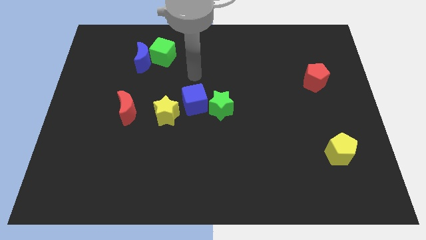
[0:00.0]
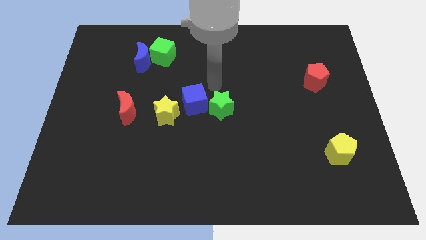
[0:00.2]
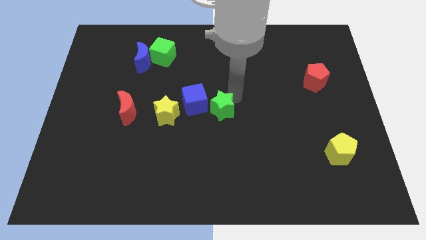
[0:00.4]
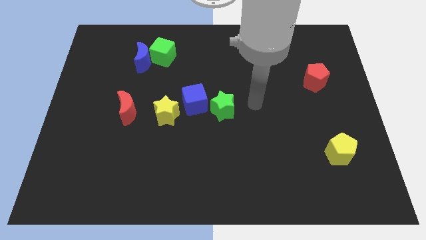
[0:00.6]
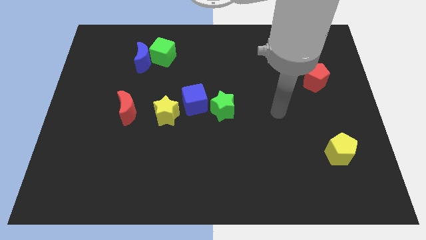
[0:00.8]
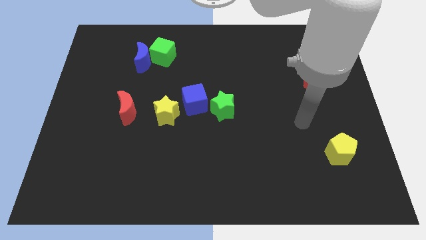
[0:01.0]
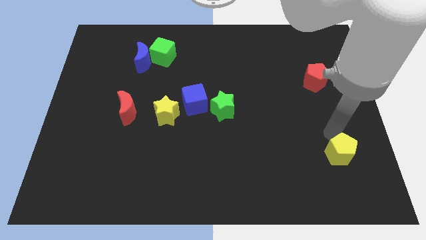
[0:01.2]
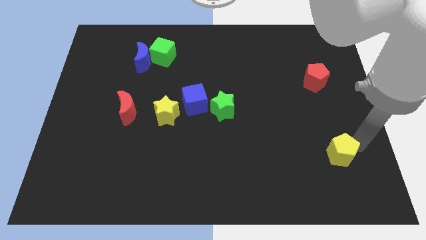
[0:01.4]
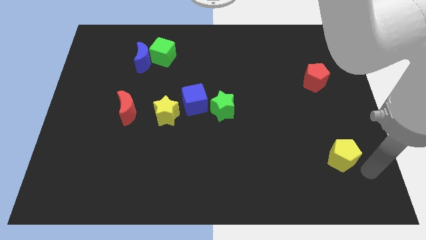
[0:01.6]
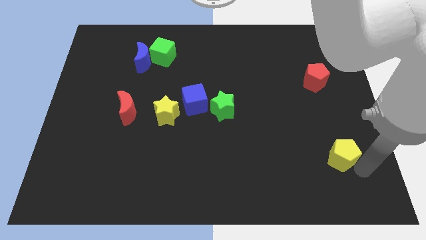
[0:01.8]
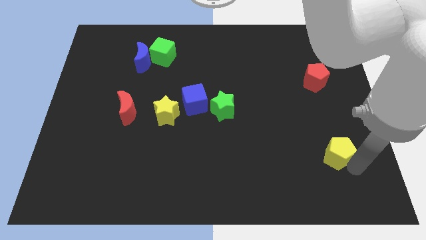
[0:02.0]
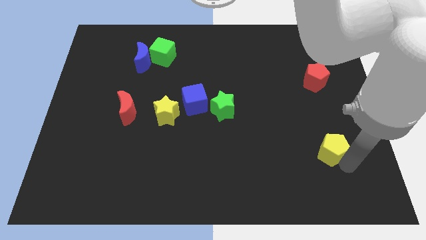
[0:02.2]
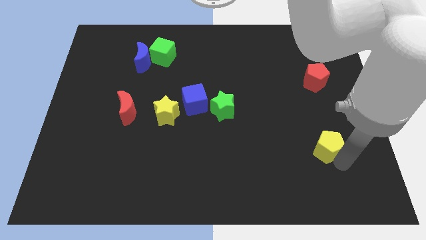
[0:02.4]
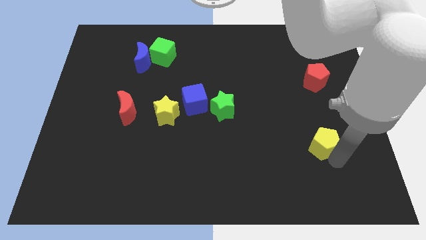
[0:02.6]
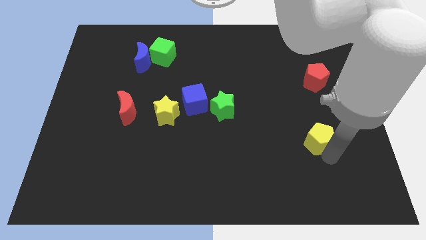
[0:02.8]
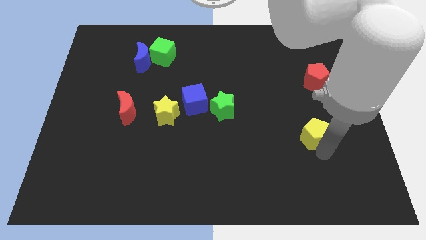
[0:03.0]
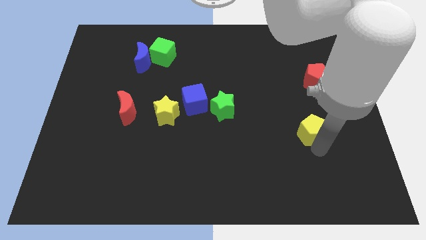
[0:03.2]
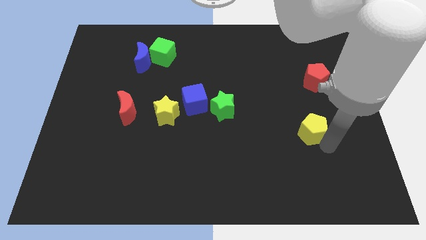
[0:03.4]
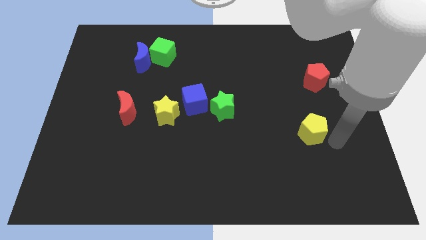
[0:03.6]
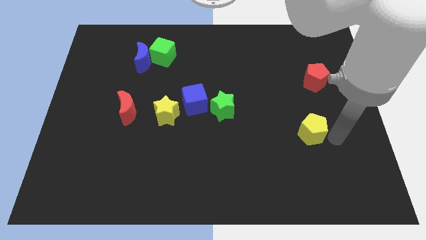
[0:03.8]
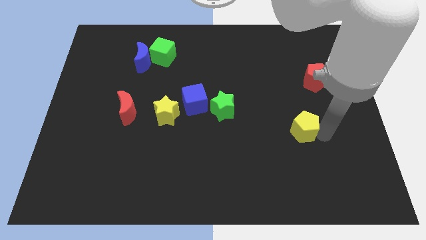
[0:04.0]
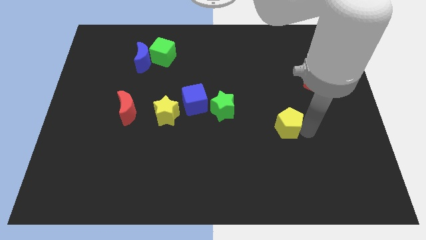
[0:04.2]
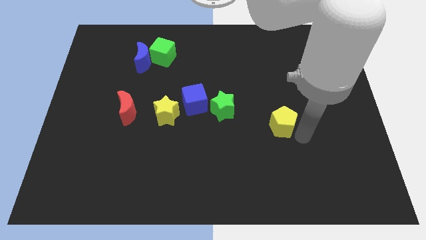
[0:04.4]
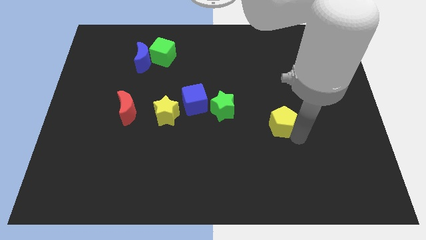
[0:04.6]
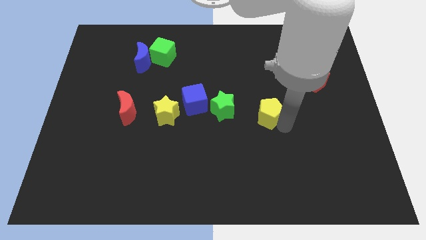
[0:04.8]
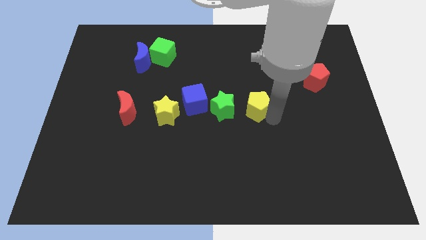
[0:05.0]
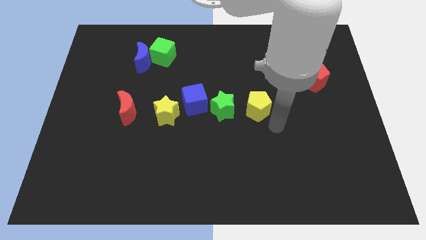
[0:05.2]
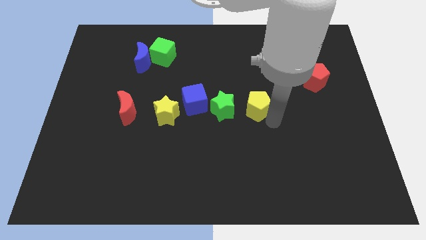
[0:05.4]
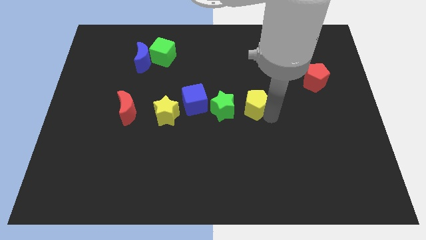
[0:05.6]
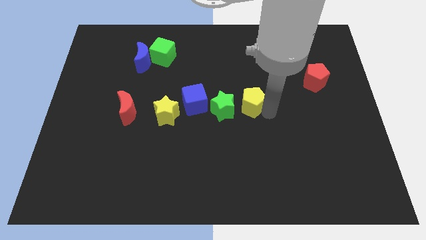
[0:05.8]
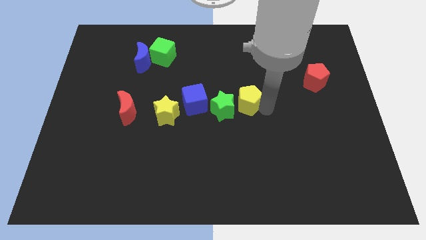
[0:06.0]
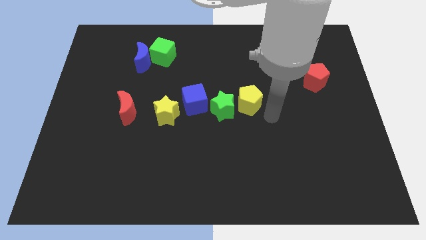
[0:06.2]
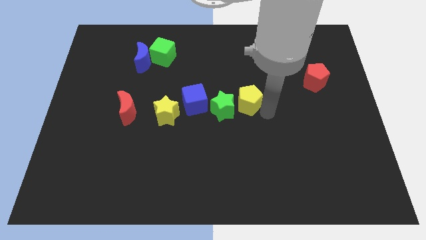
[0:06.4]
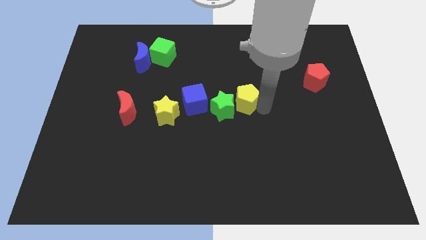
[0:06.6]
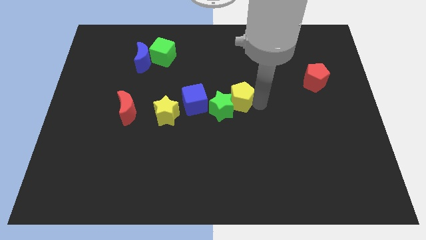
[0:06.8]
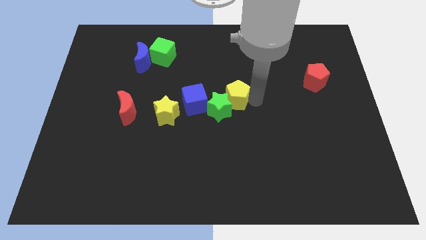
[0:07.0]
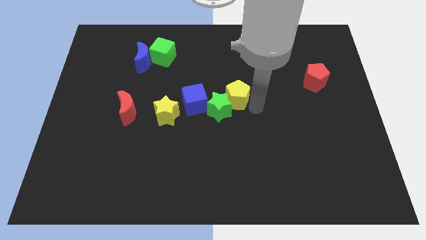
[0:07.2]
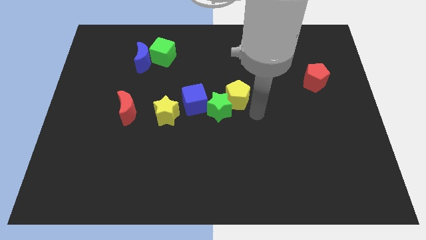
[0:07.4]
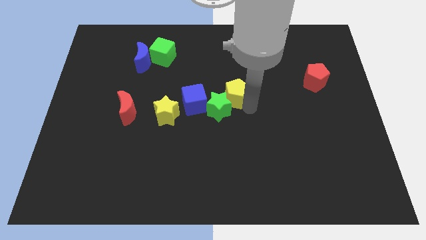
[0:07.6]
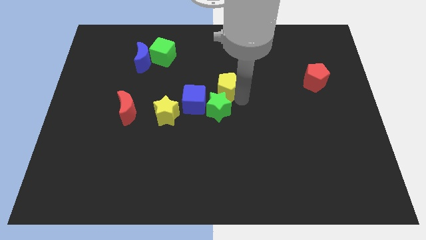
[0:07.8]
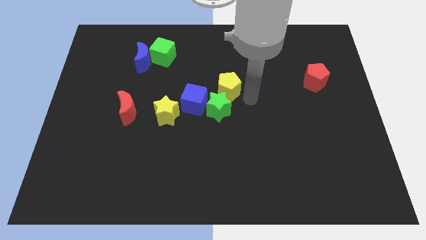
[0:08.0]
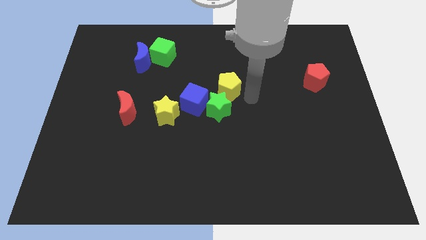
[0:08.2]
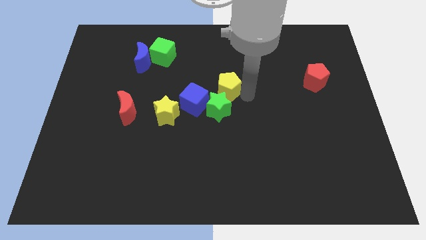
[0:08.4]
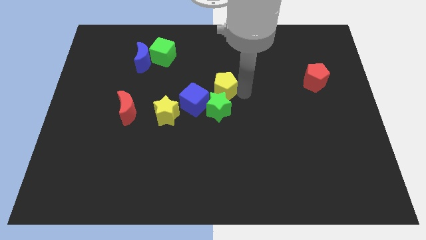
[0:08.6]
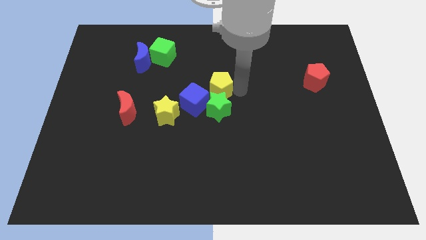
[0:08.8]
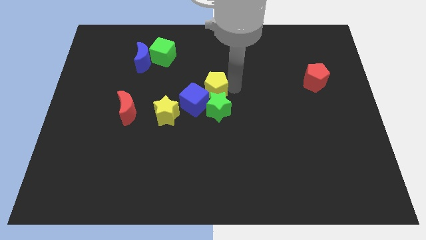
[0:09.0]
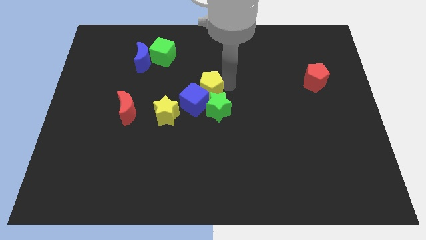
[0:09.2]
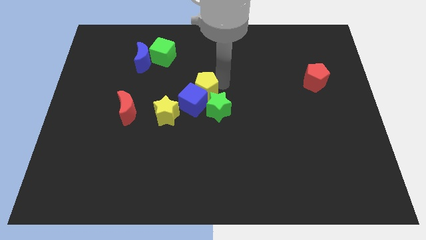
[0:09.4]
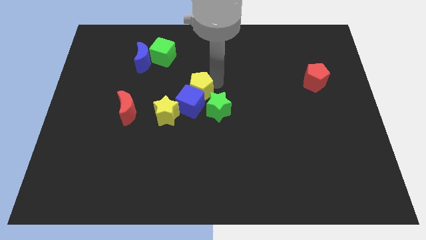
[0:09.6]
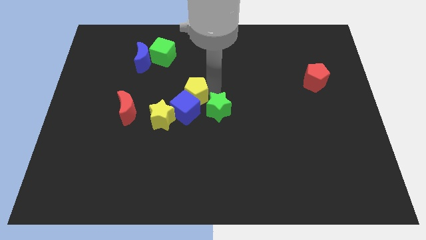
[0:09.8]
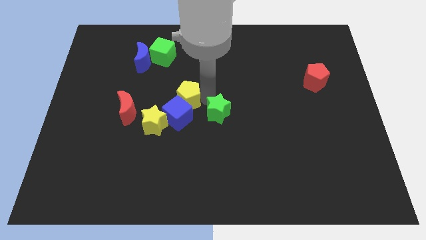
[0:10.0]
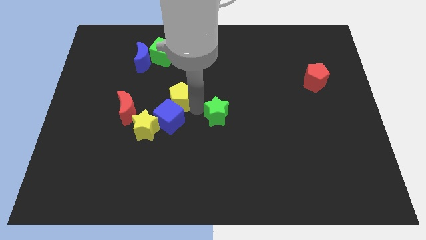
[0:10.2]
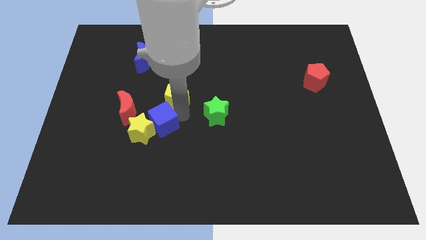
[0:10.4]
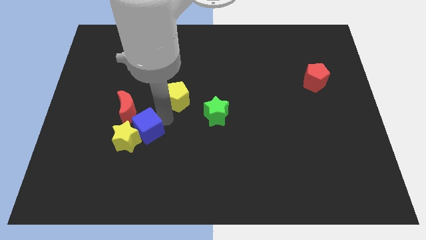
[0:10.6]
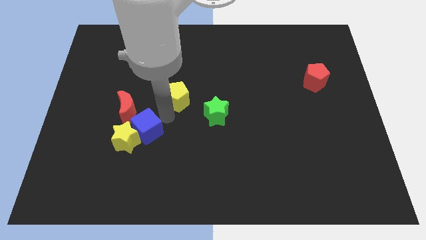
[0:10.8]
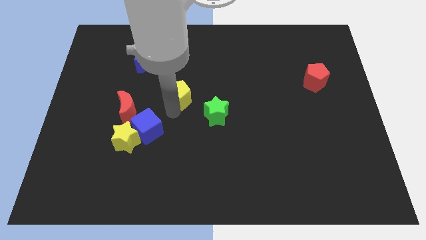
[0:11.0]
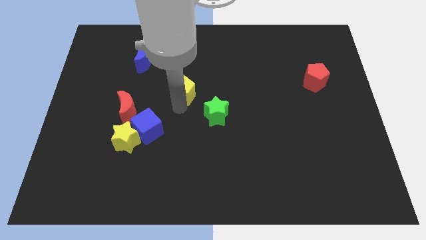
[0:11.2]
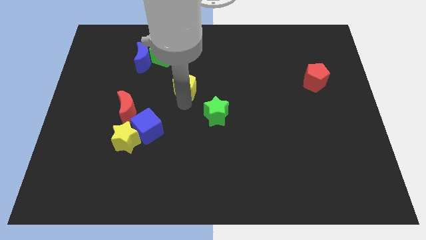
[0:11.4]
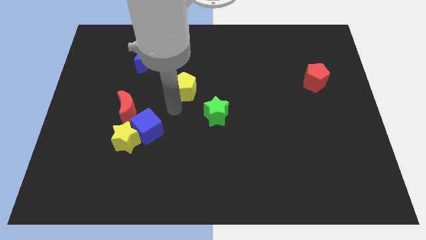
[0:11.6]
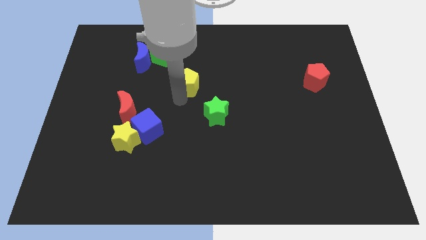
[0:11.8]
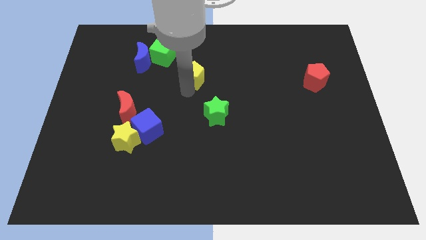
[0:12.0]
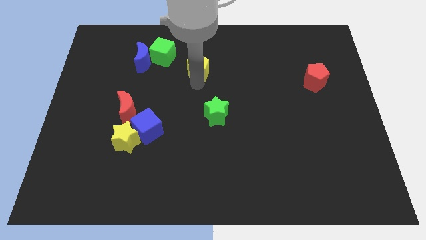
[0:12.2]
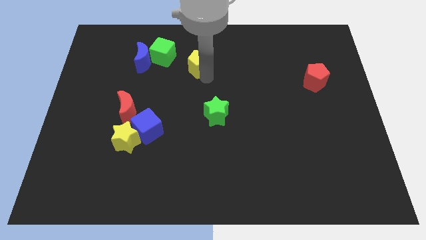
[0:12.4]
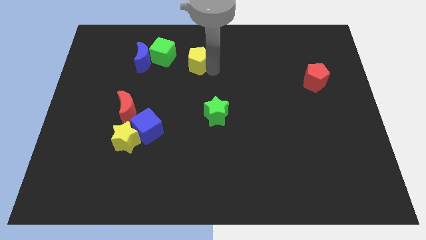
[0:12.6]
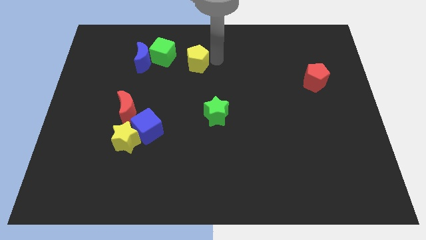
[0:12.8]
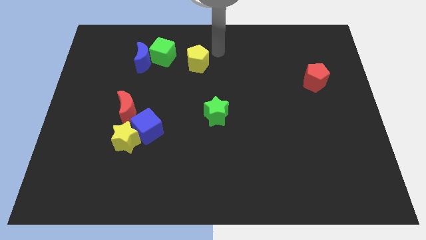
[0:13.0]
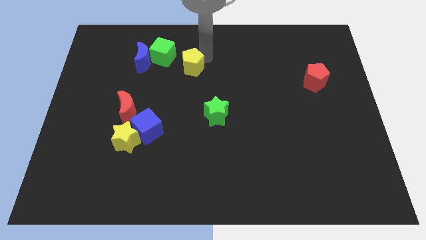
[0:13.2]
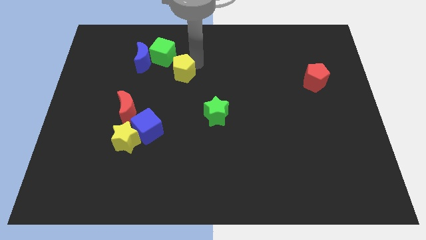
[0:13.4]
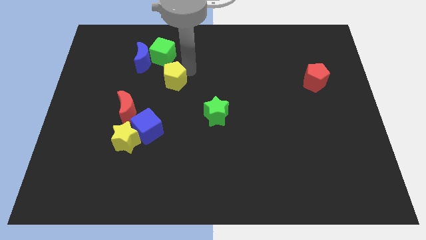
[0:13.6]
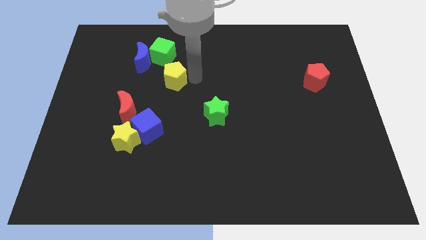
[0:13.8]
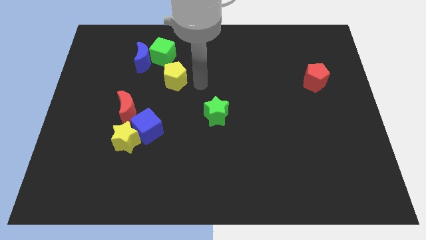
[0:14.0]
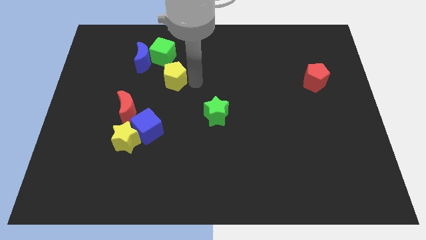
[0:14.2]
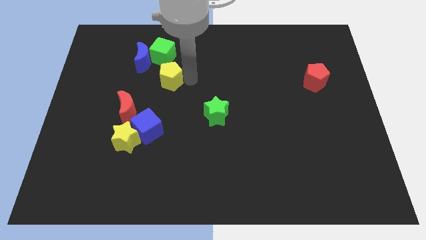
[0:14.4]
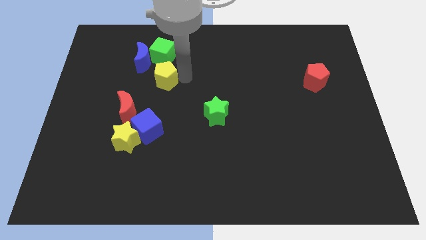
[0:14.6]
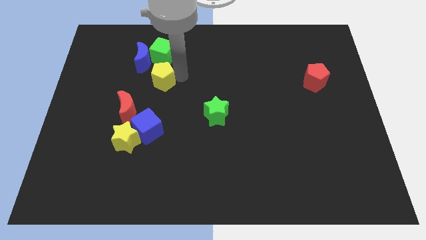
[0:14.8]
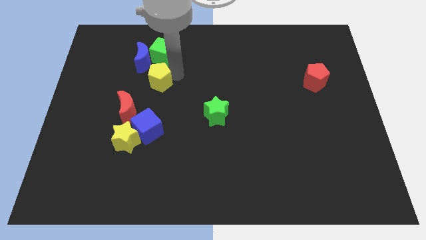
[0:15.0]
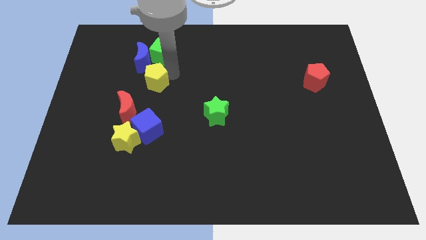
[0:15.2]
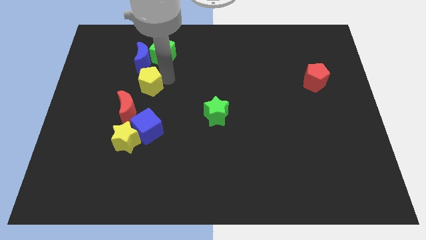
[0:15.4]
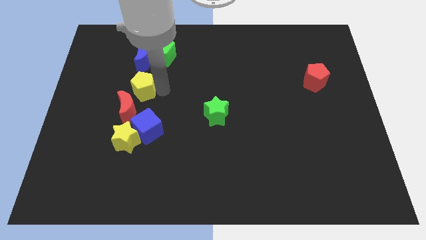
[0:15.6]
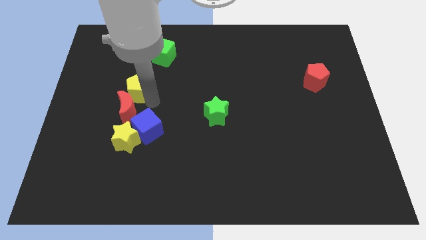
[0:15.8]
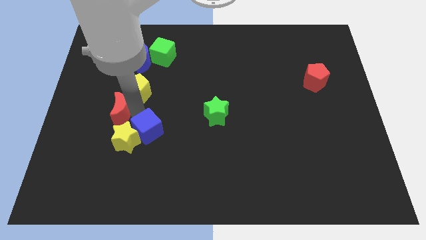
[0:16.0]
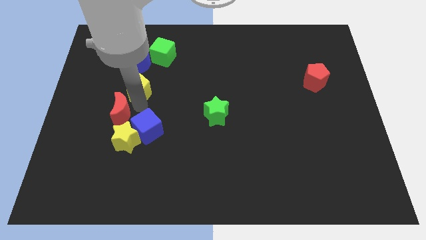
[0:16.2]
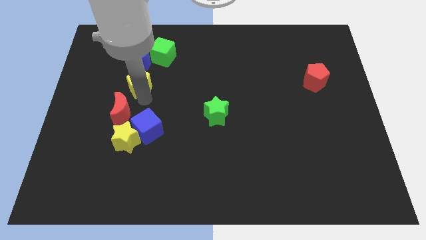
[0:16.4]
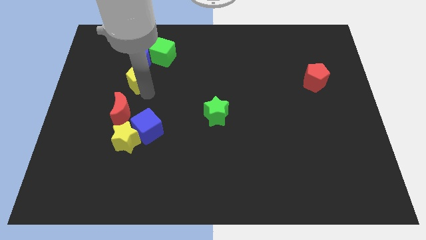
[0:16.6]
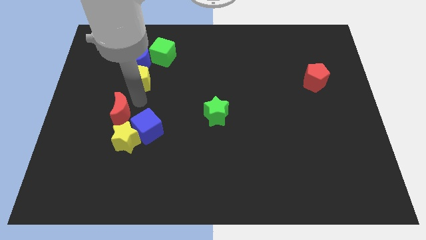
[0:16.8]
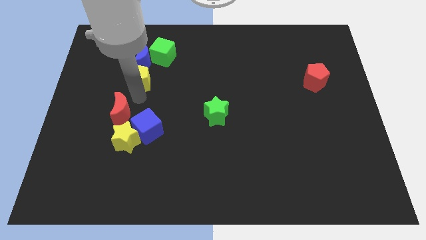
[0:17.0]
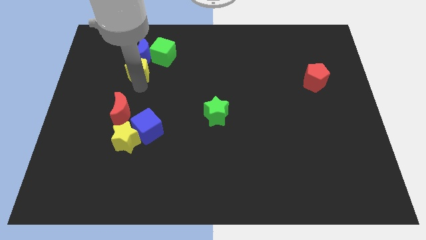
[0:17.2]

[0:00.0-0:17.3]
move the yellow pentagon next to the blue moon
